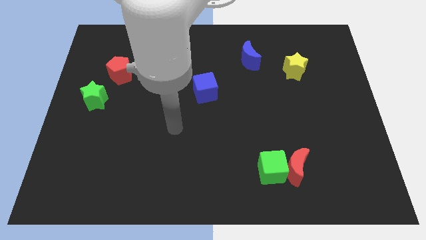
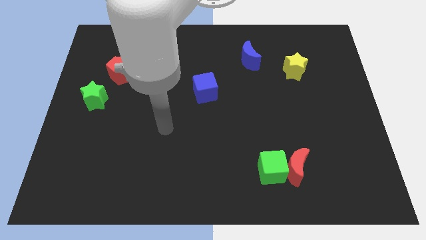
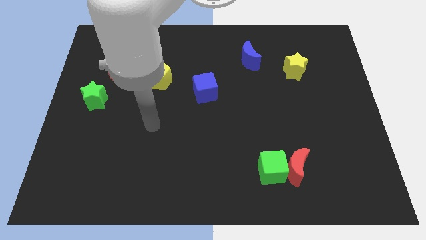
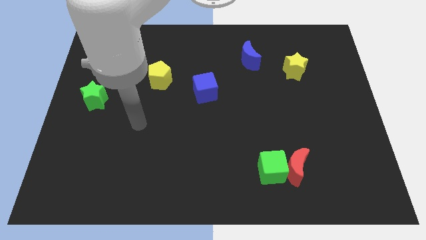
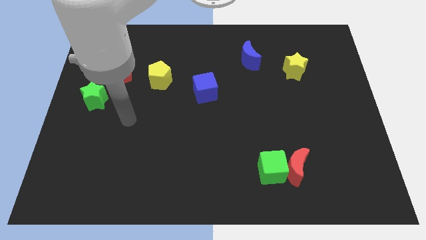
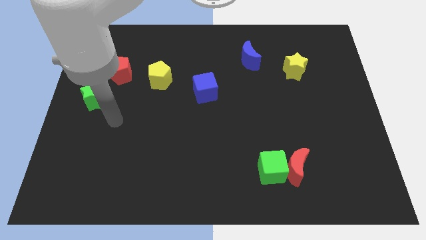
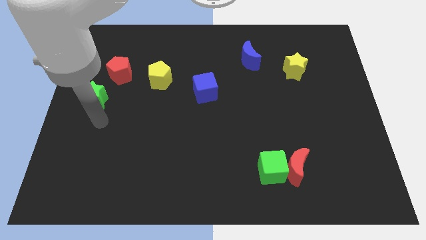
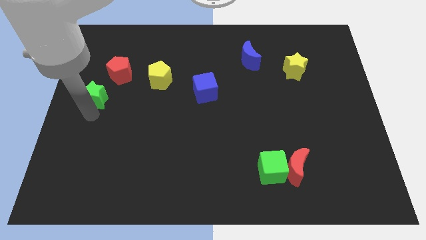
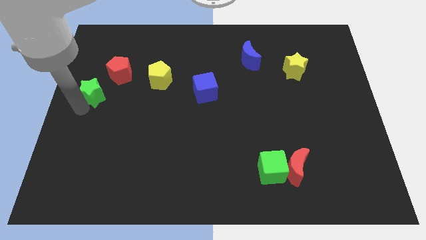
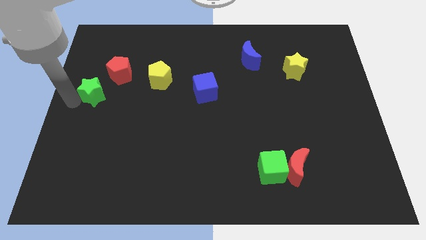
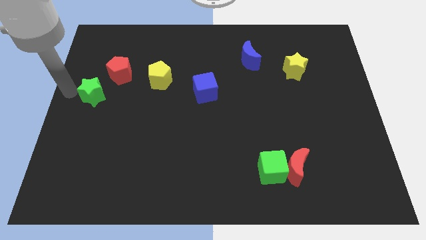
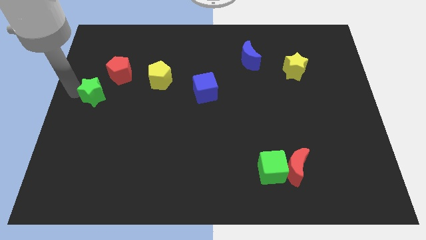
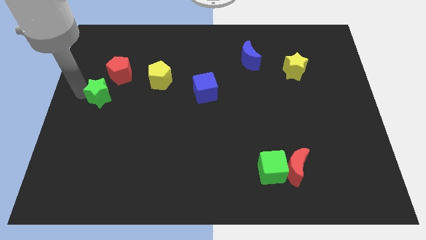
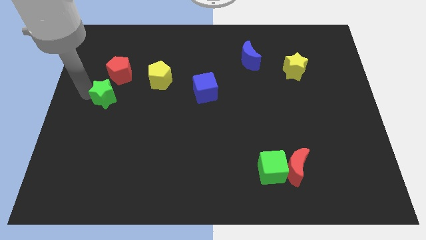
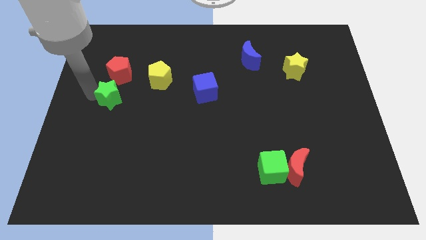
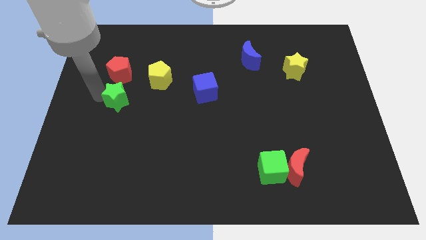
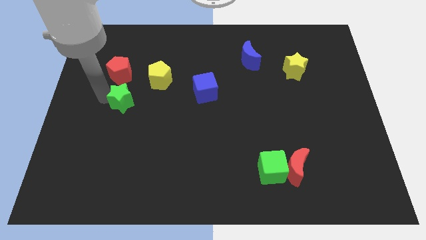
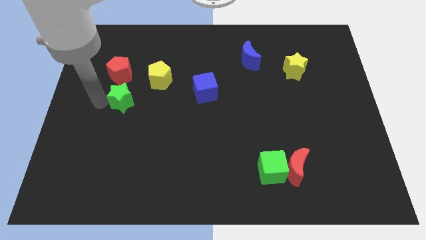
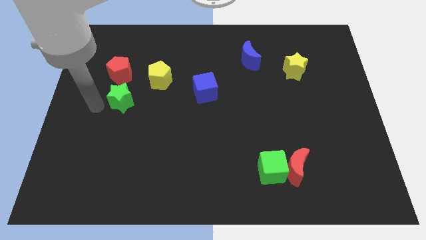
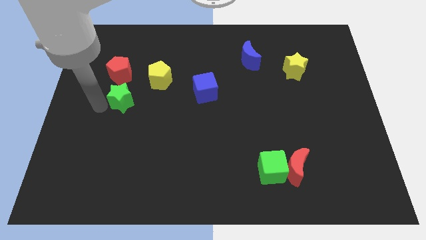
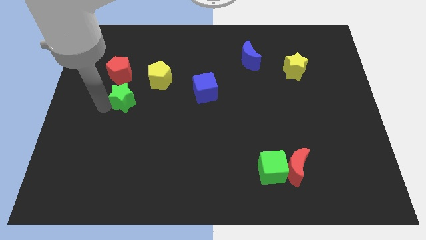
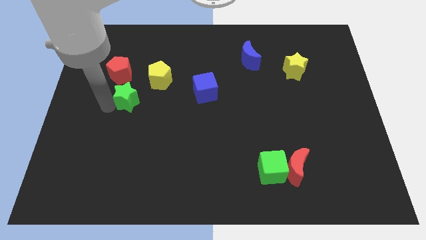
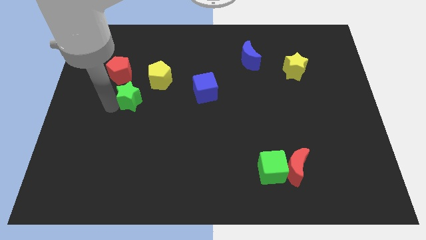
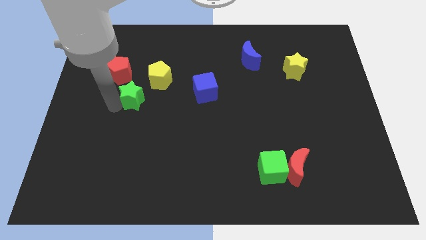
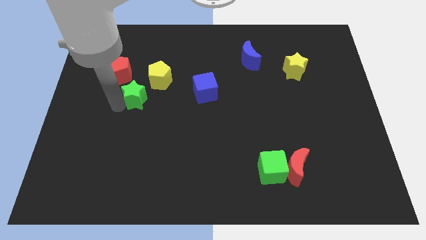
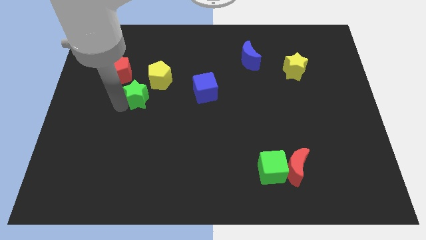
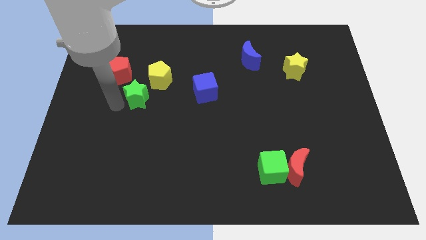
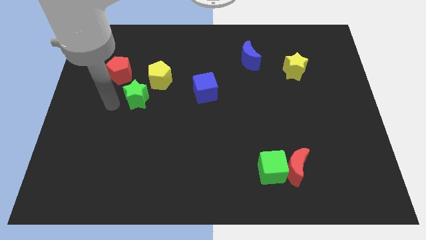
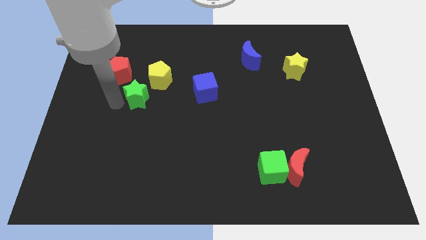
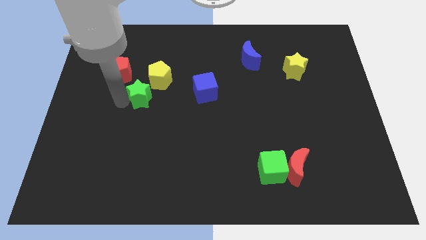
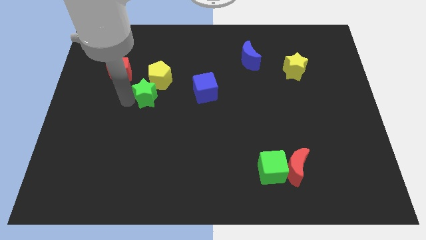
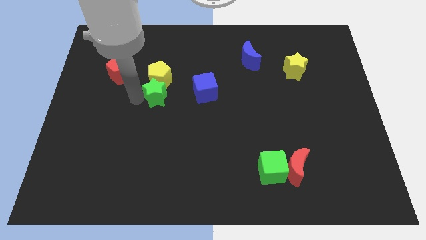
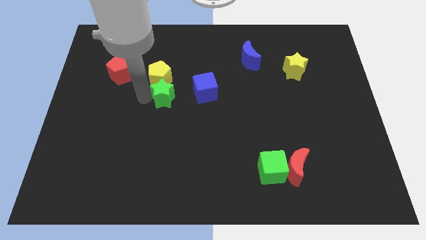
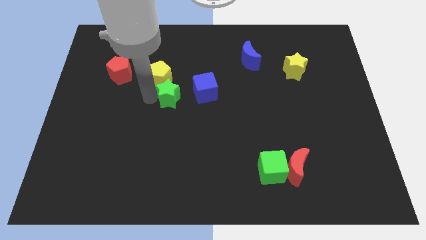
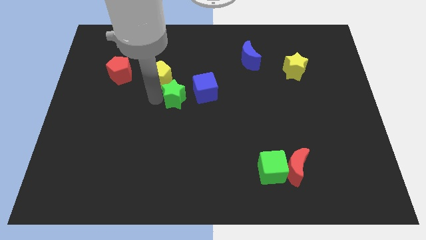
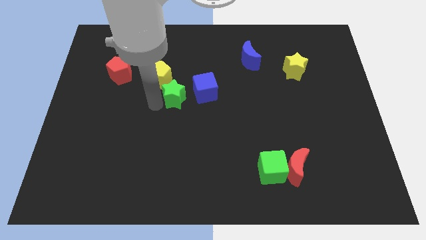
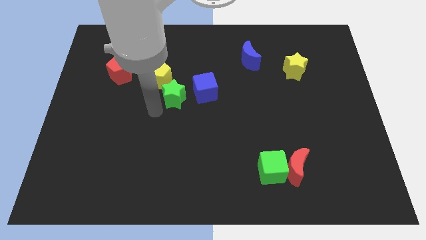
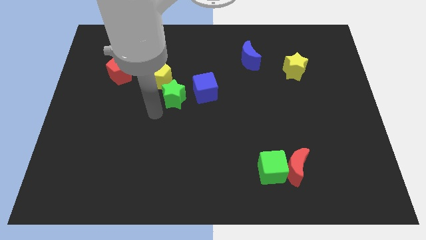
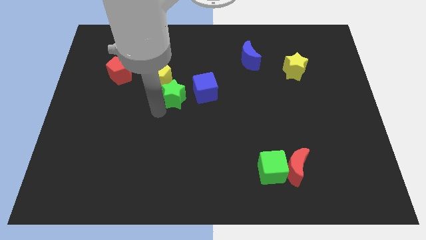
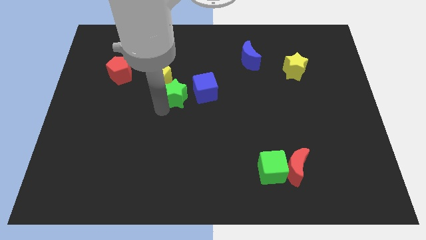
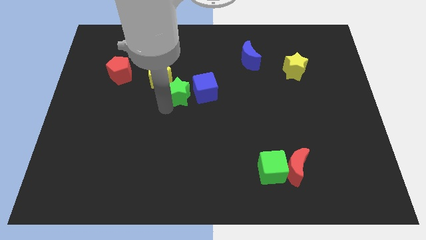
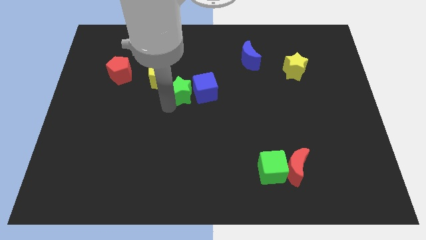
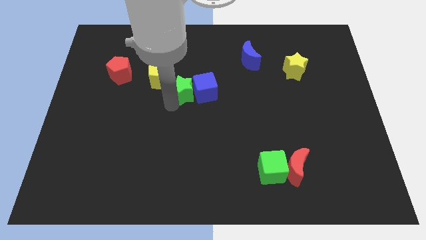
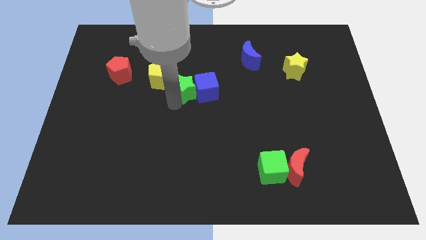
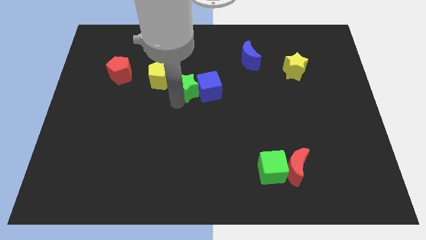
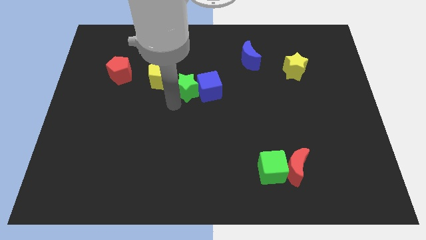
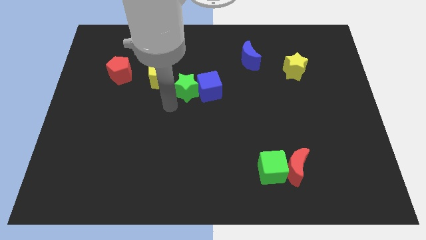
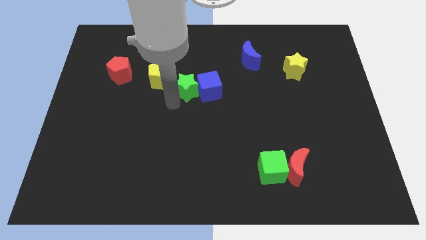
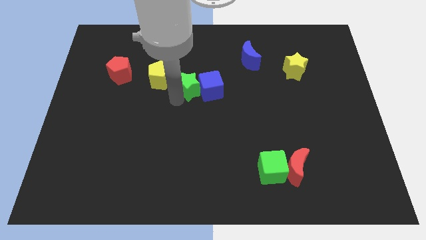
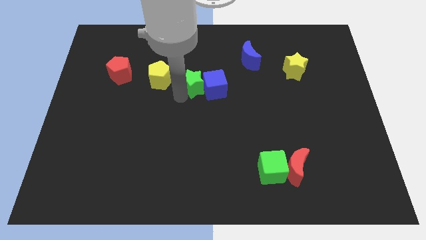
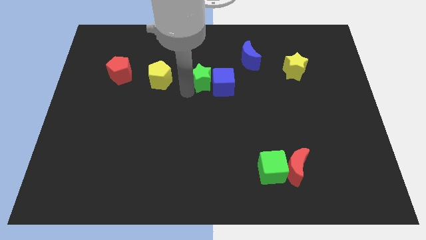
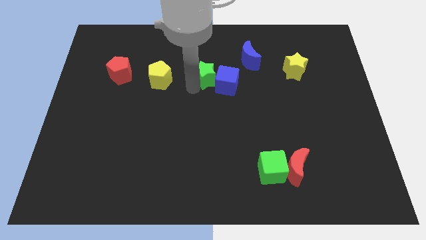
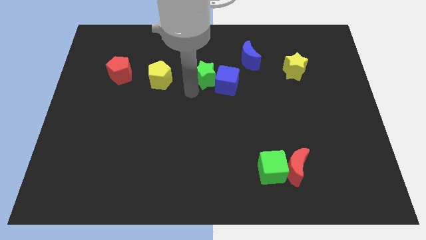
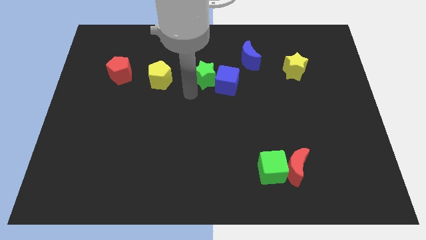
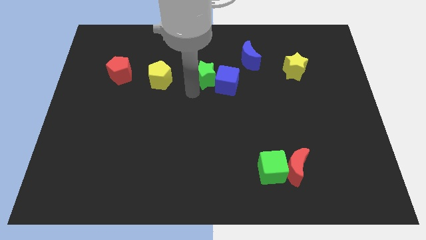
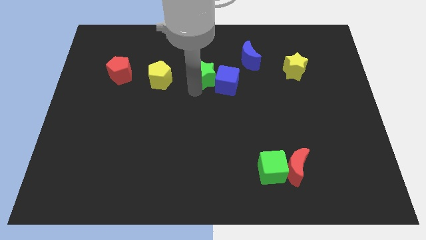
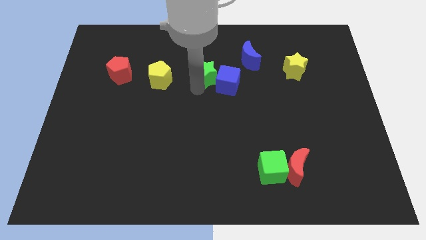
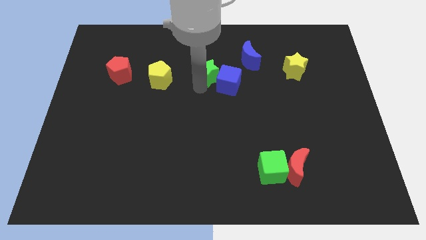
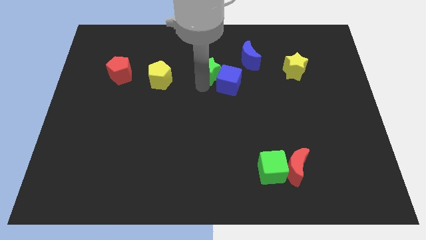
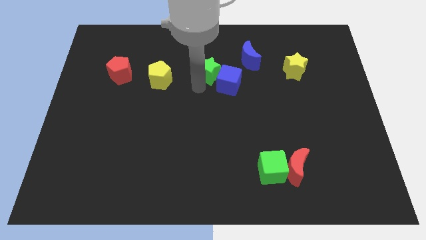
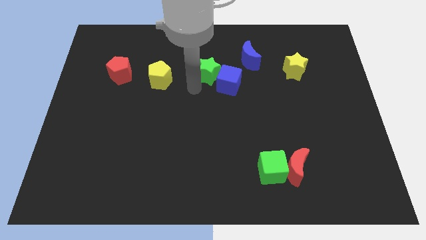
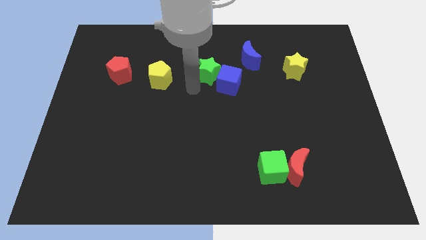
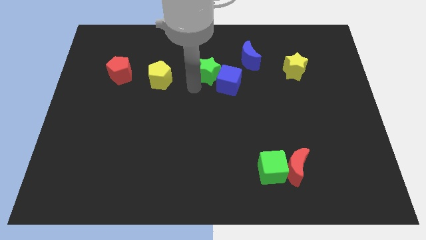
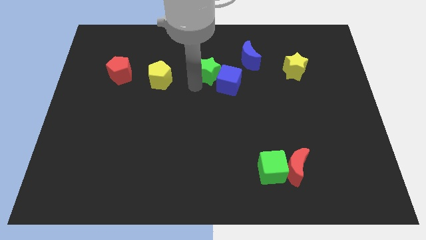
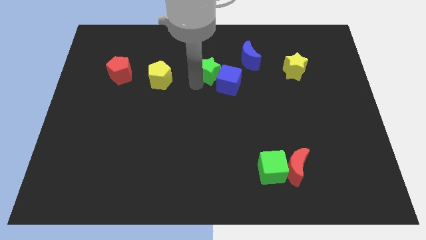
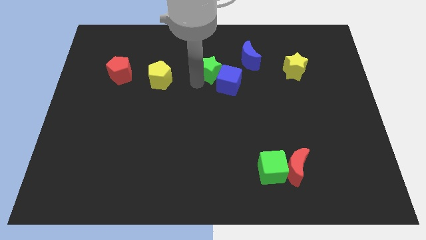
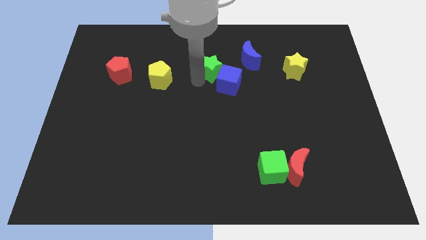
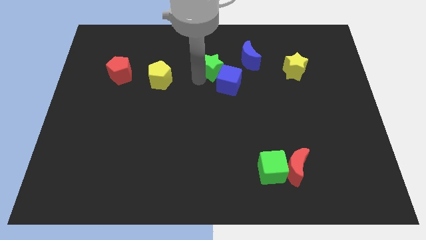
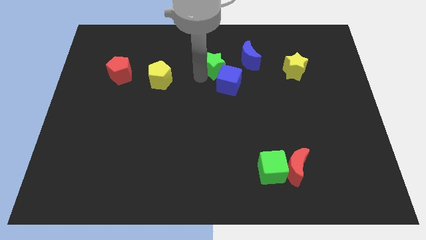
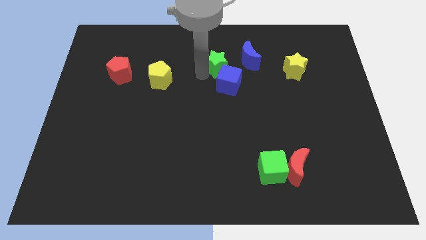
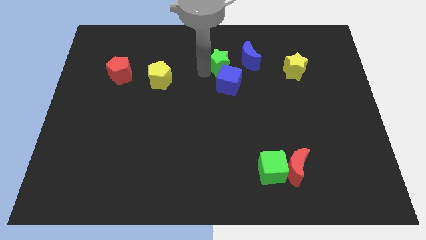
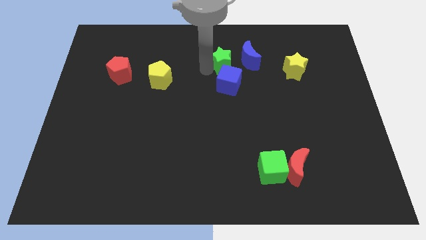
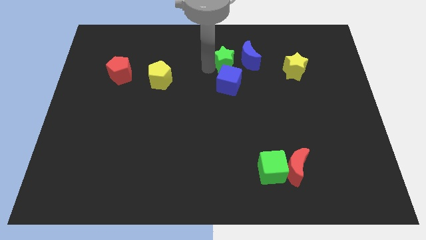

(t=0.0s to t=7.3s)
put the green star close to the blue moon
